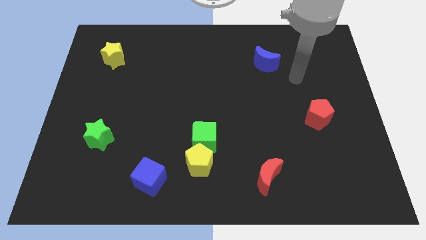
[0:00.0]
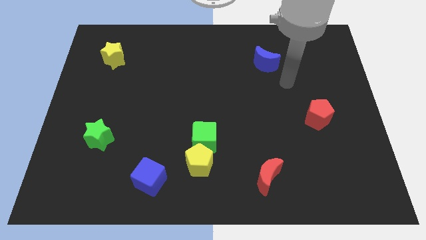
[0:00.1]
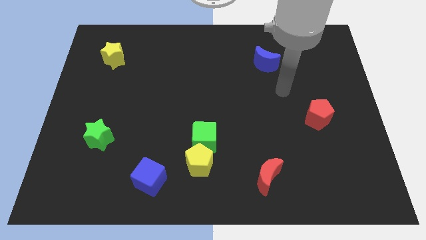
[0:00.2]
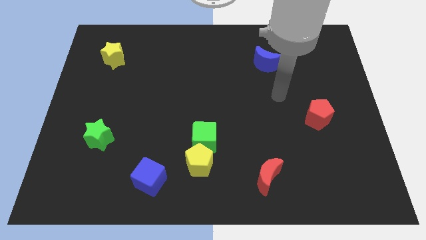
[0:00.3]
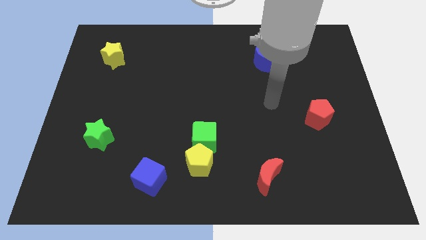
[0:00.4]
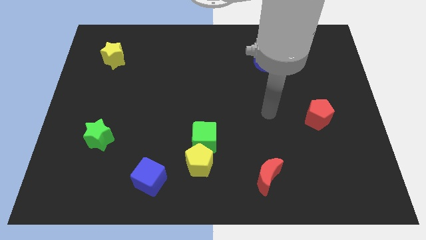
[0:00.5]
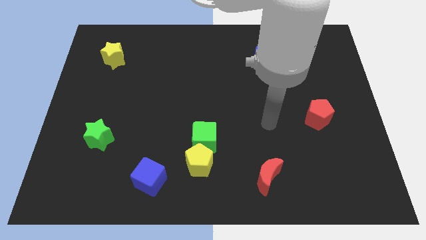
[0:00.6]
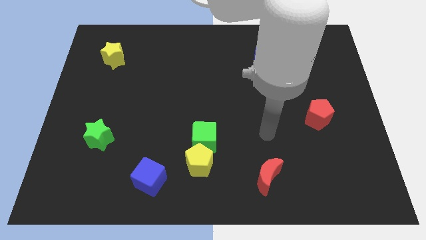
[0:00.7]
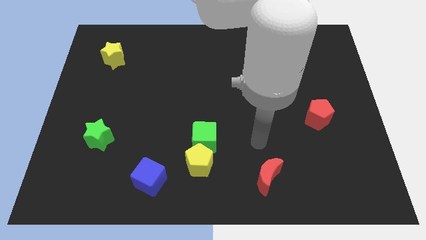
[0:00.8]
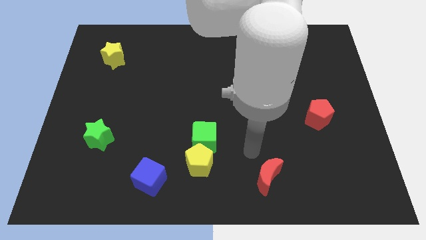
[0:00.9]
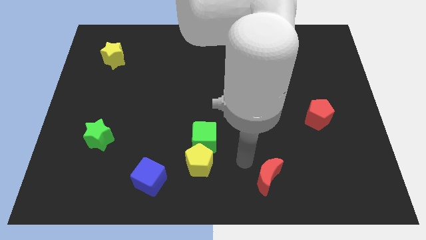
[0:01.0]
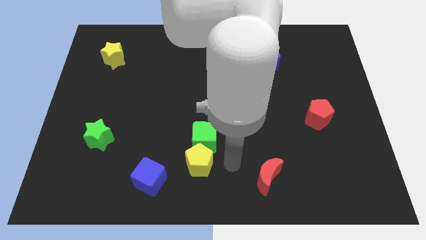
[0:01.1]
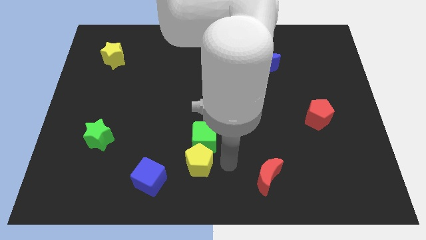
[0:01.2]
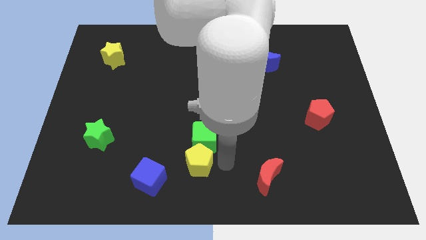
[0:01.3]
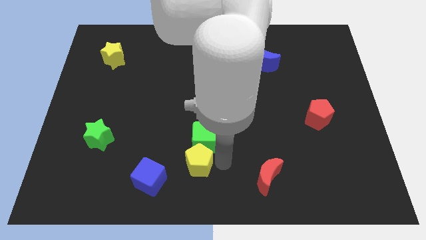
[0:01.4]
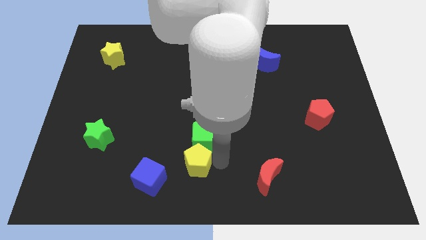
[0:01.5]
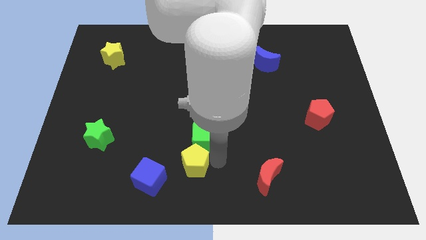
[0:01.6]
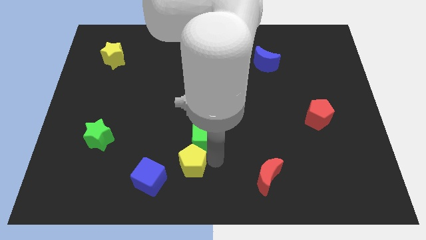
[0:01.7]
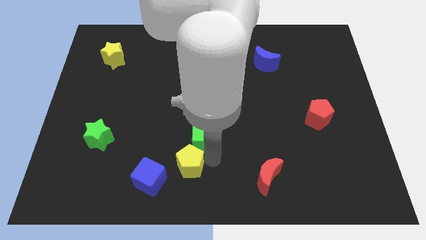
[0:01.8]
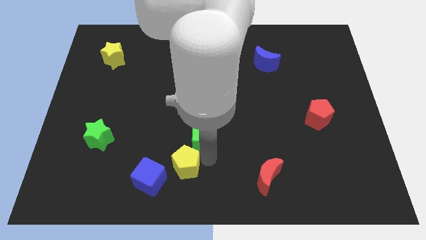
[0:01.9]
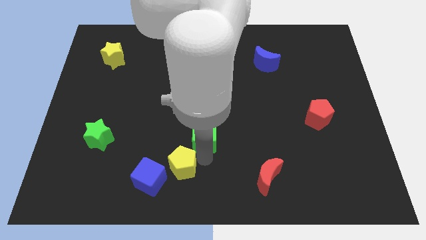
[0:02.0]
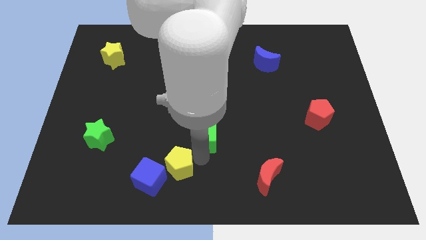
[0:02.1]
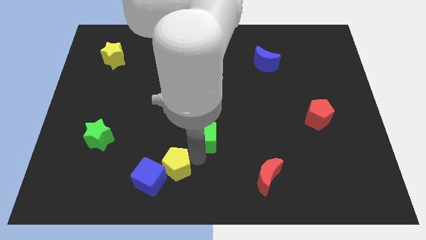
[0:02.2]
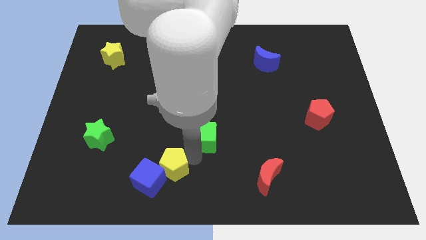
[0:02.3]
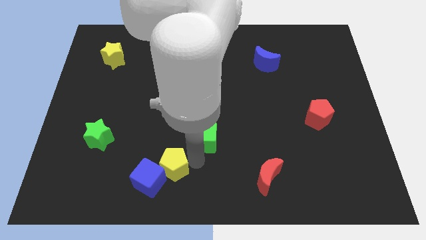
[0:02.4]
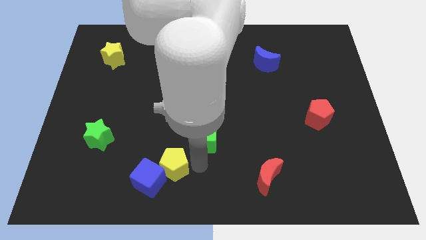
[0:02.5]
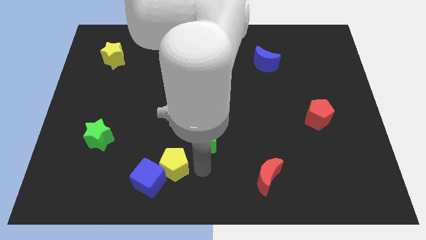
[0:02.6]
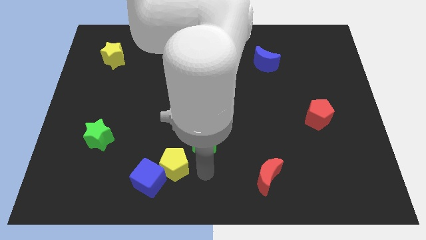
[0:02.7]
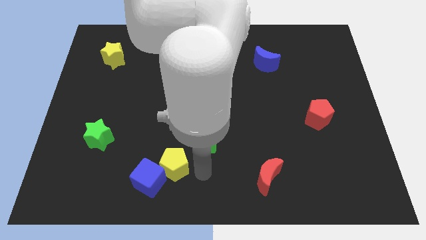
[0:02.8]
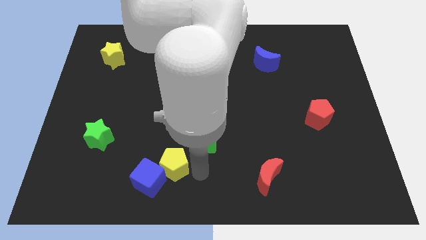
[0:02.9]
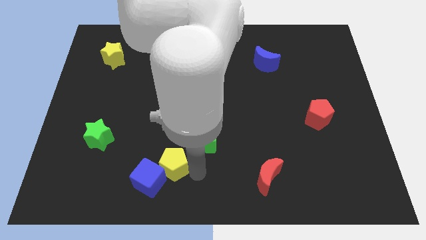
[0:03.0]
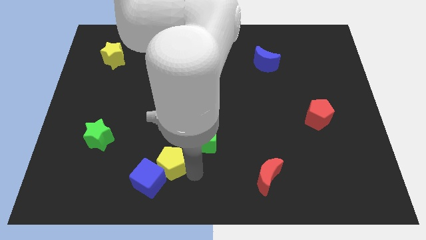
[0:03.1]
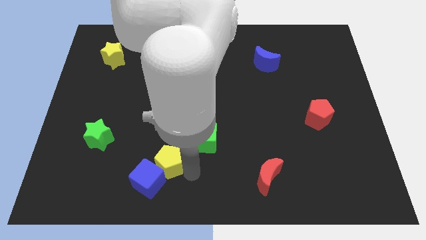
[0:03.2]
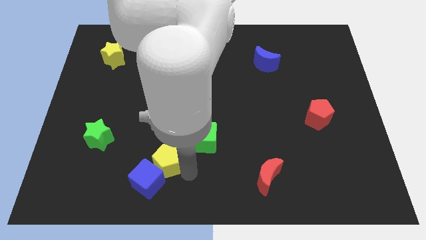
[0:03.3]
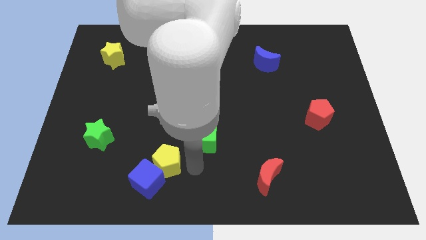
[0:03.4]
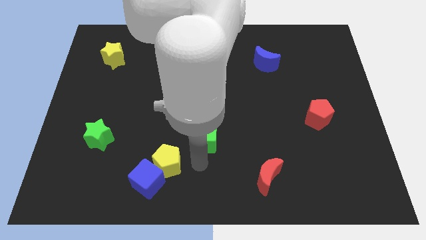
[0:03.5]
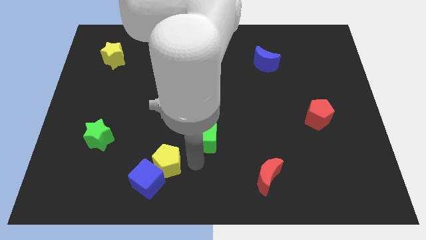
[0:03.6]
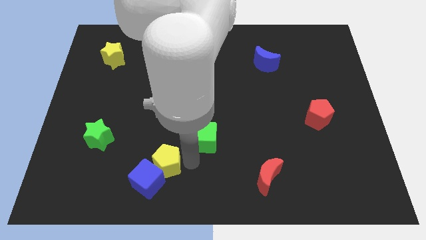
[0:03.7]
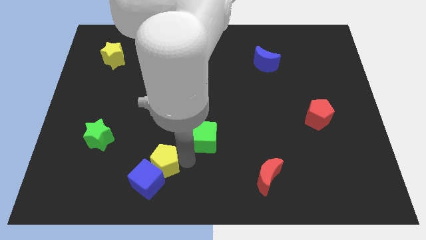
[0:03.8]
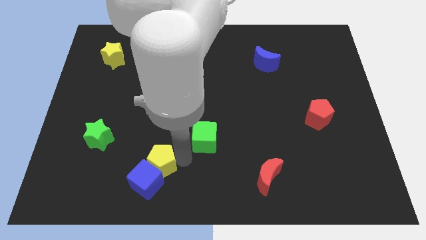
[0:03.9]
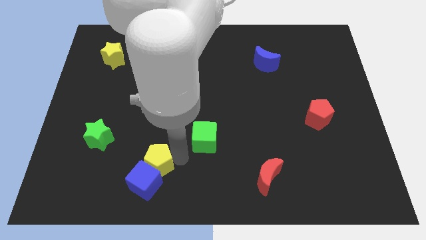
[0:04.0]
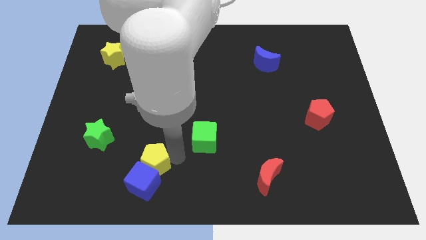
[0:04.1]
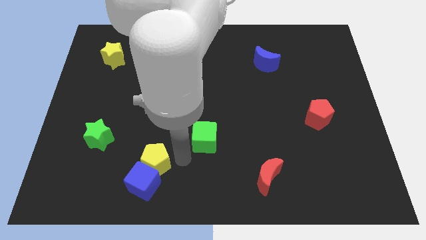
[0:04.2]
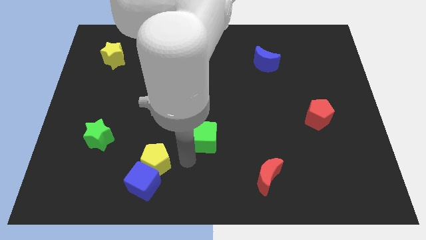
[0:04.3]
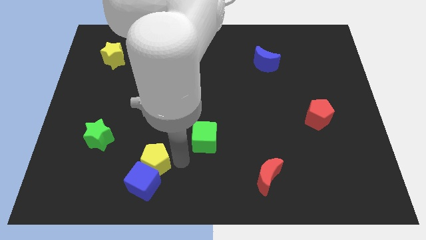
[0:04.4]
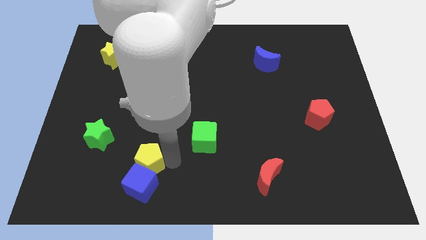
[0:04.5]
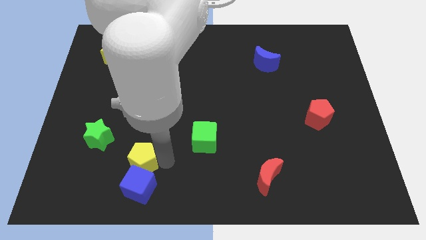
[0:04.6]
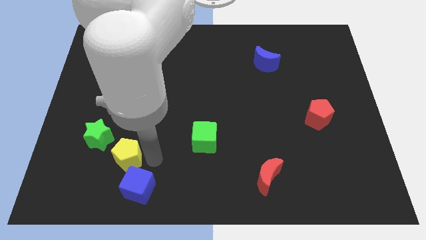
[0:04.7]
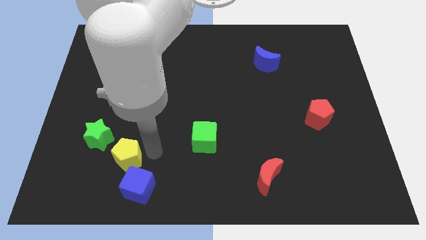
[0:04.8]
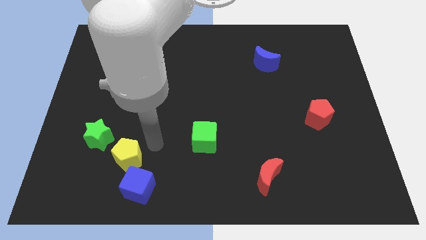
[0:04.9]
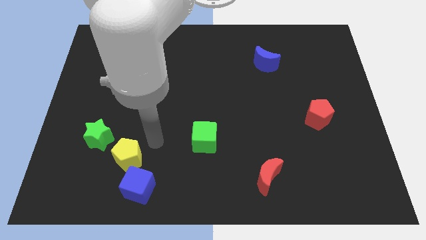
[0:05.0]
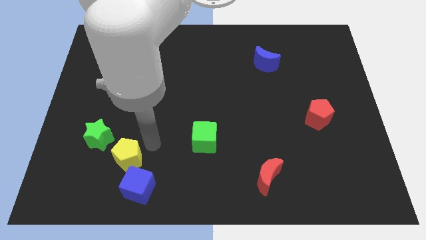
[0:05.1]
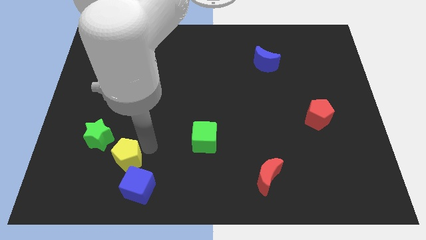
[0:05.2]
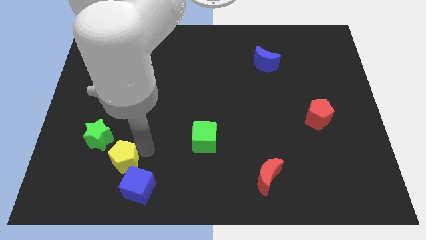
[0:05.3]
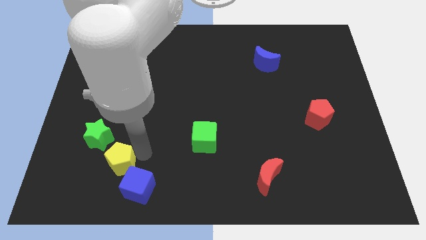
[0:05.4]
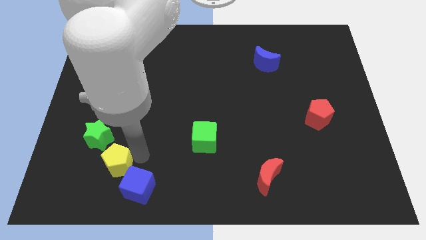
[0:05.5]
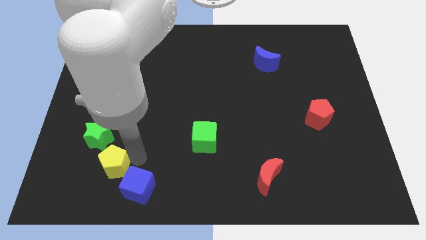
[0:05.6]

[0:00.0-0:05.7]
move the yellow pentagon below the green star

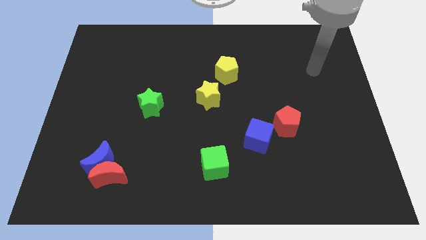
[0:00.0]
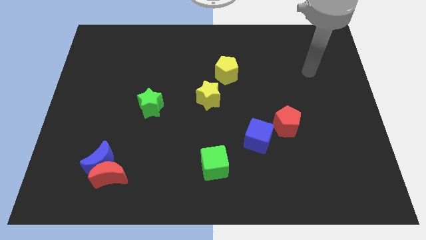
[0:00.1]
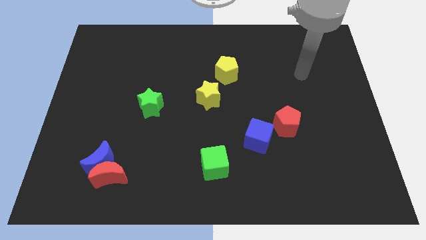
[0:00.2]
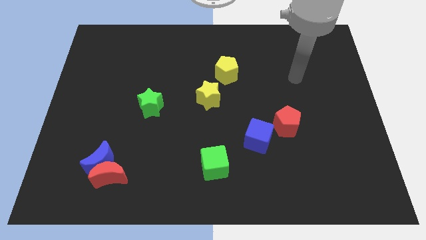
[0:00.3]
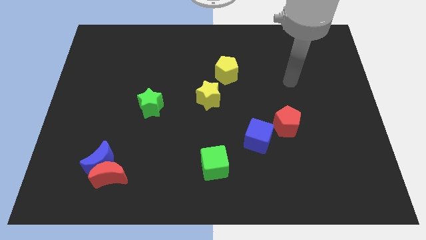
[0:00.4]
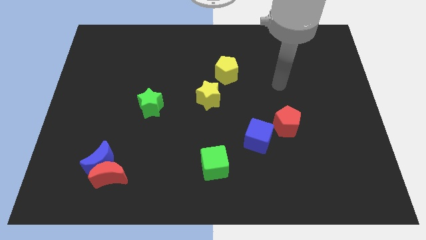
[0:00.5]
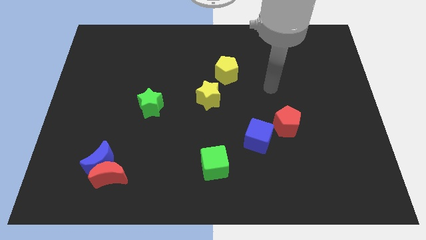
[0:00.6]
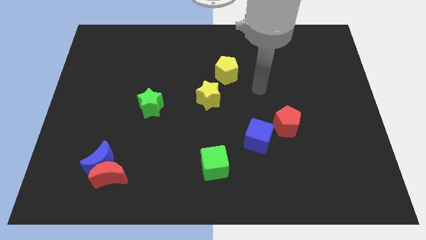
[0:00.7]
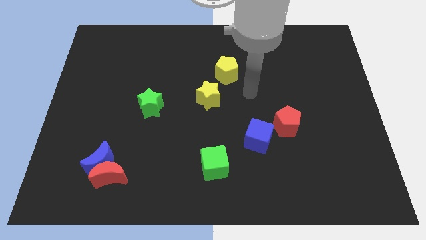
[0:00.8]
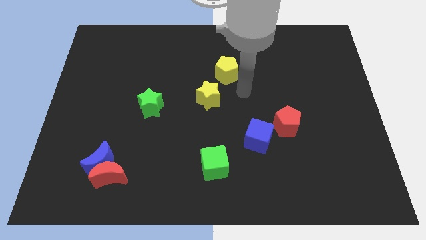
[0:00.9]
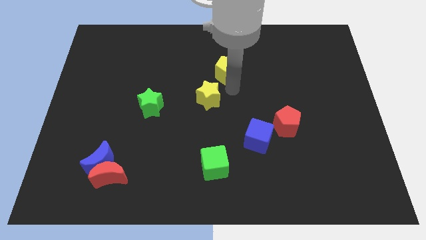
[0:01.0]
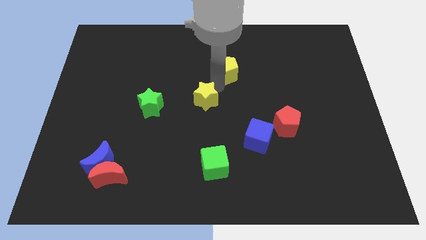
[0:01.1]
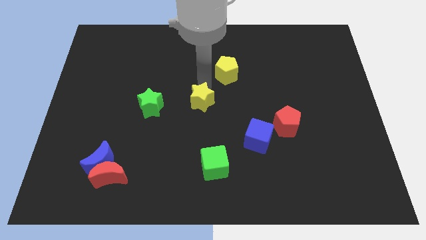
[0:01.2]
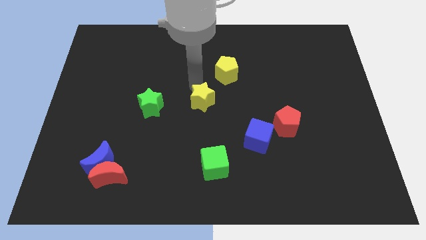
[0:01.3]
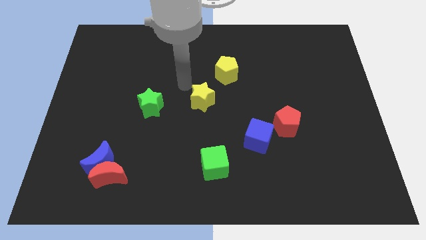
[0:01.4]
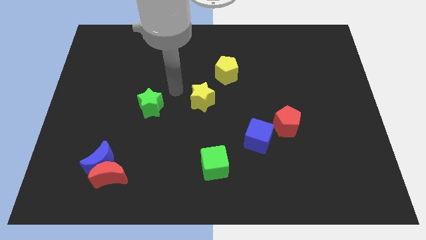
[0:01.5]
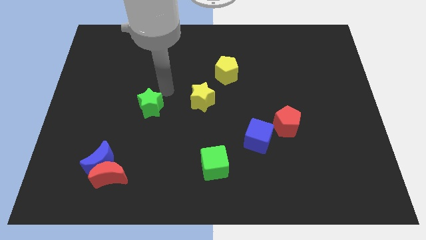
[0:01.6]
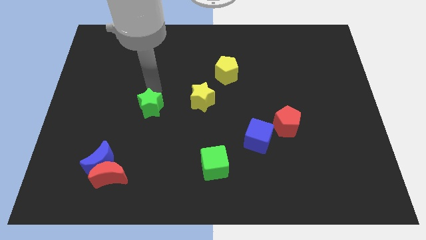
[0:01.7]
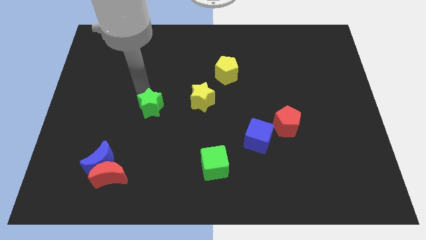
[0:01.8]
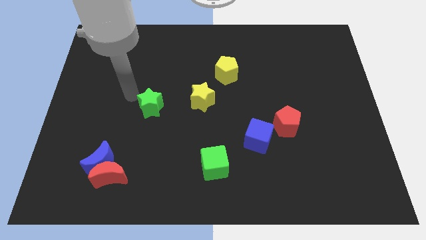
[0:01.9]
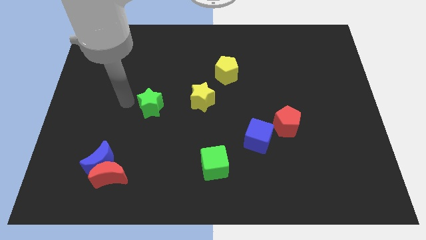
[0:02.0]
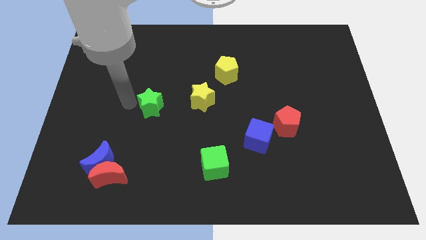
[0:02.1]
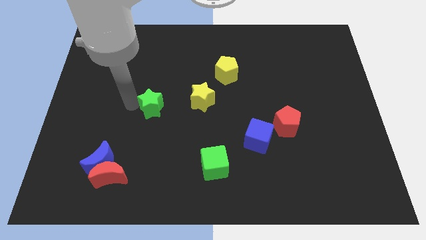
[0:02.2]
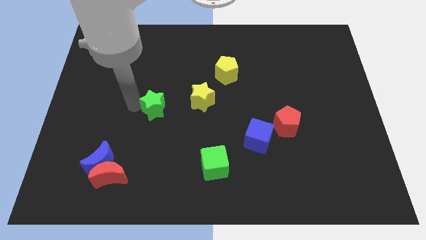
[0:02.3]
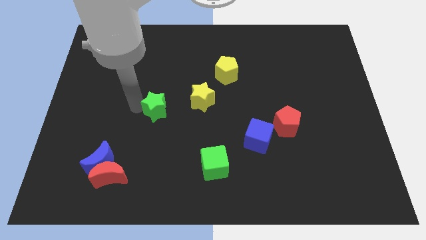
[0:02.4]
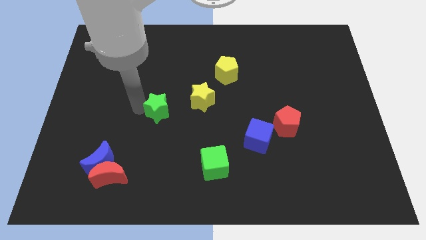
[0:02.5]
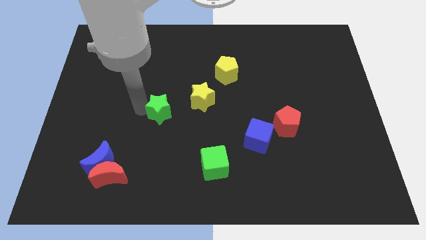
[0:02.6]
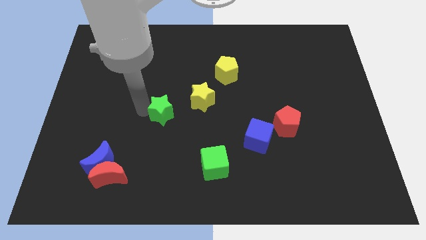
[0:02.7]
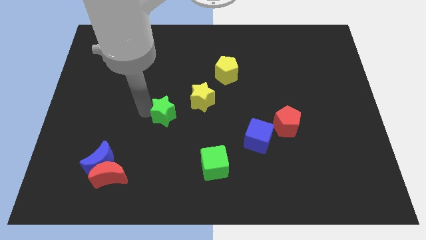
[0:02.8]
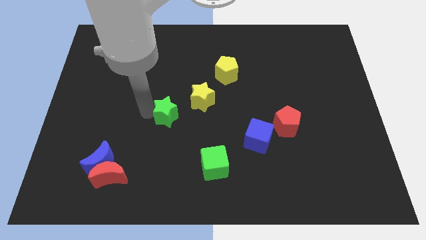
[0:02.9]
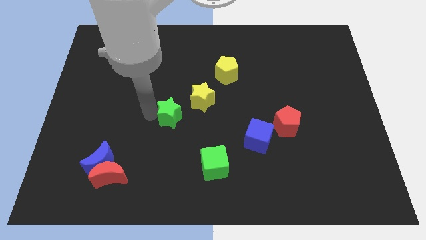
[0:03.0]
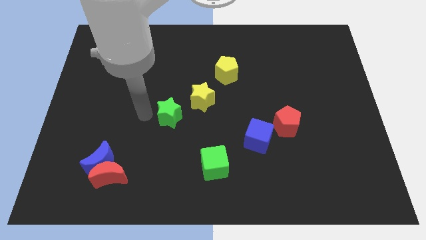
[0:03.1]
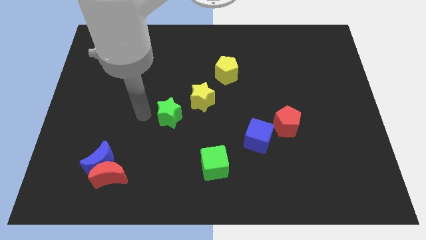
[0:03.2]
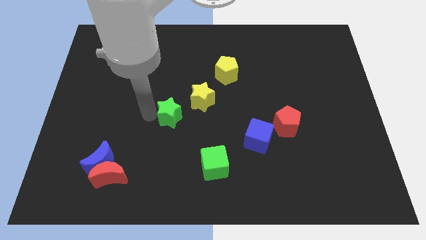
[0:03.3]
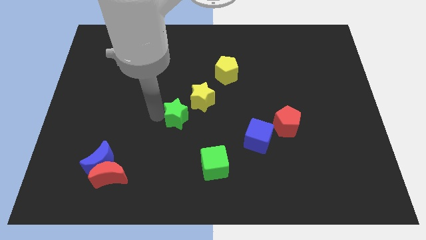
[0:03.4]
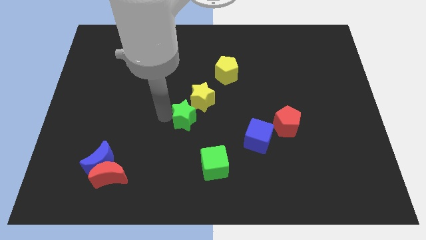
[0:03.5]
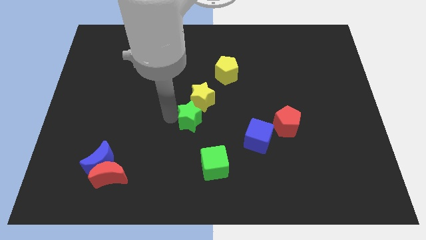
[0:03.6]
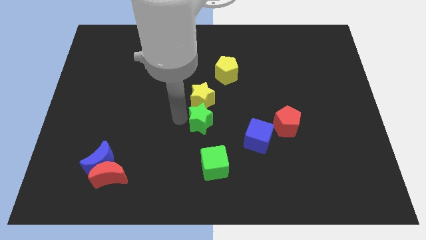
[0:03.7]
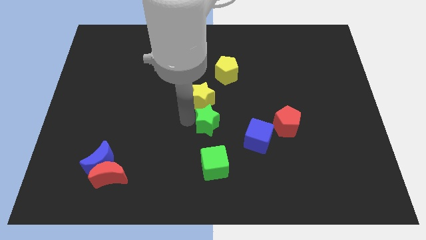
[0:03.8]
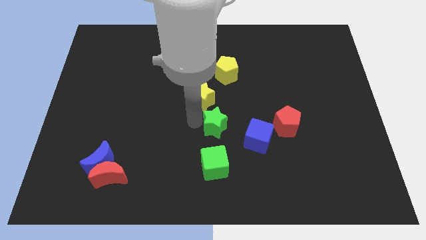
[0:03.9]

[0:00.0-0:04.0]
put the green star to the top left of the blue cube
